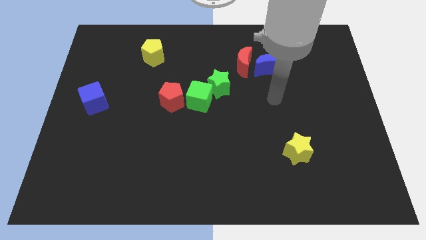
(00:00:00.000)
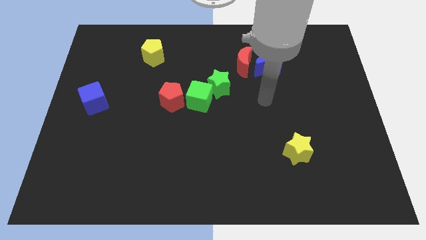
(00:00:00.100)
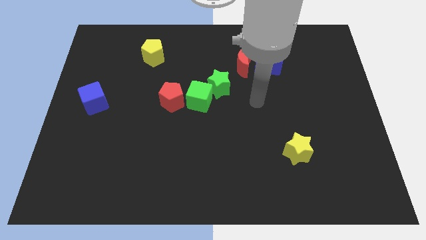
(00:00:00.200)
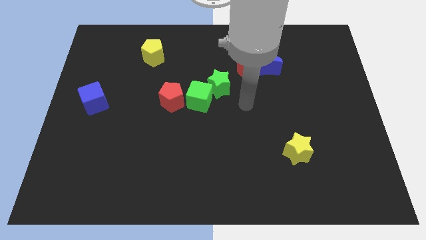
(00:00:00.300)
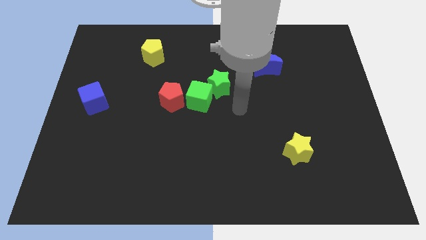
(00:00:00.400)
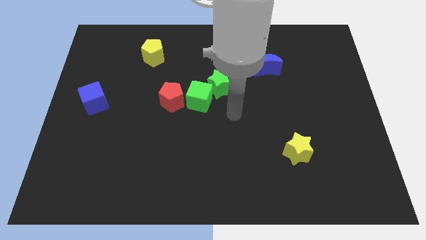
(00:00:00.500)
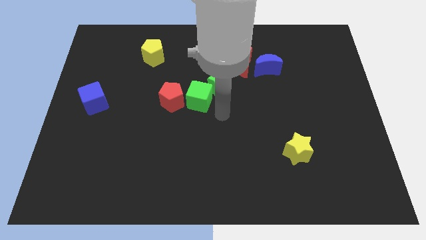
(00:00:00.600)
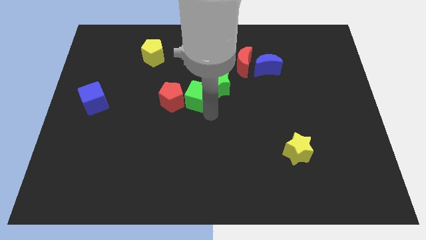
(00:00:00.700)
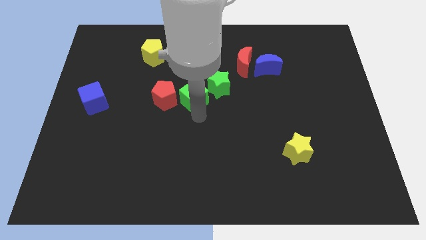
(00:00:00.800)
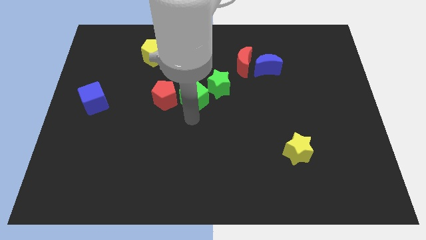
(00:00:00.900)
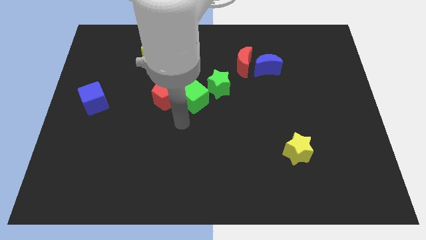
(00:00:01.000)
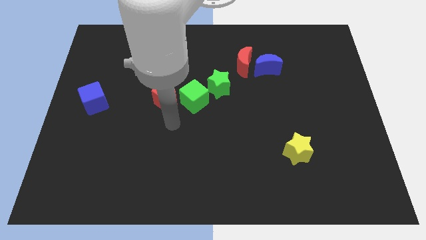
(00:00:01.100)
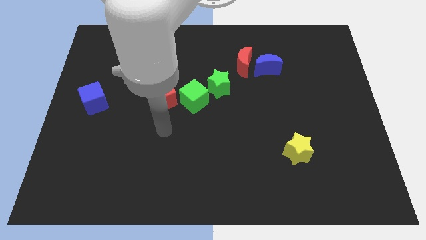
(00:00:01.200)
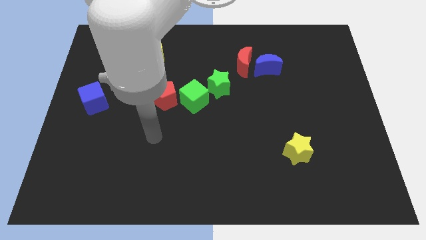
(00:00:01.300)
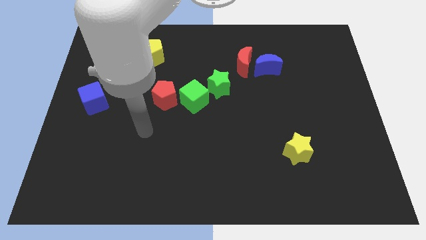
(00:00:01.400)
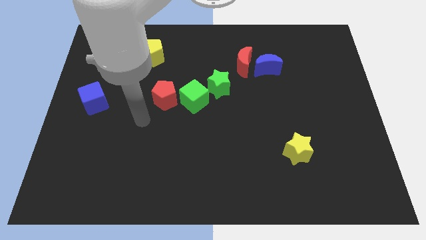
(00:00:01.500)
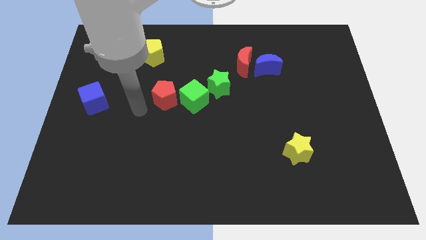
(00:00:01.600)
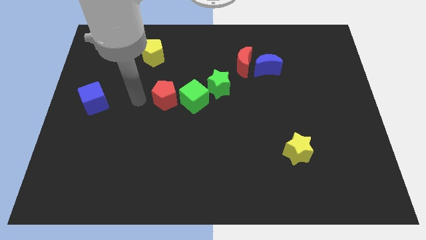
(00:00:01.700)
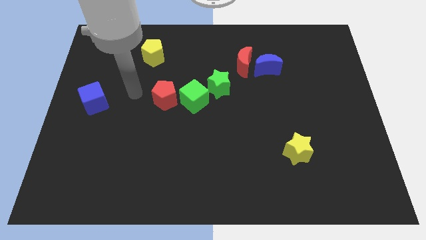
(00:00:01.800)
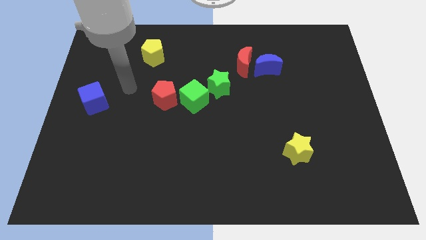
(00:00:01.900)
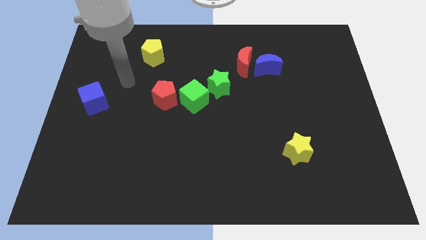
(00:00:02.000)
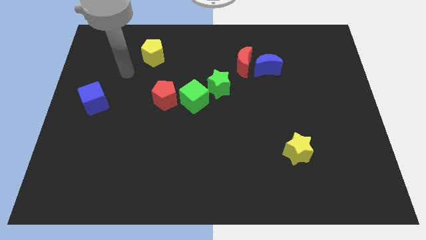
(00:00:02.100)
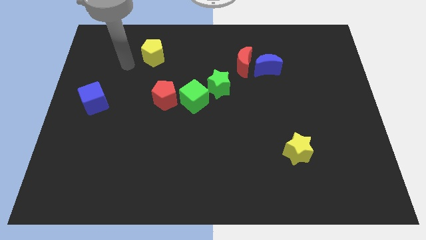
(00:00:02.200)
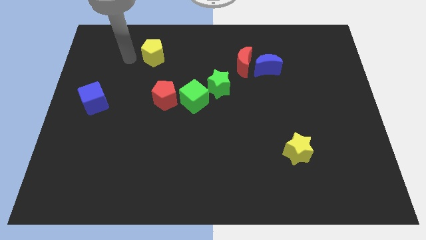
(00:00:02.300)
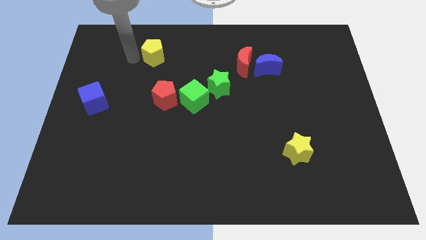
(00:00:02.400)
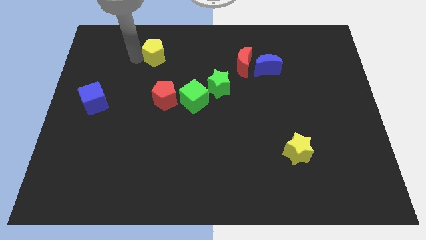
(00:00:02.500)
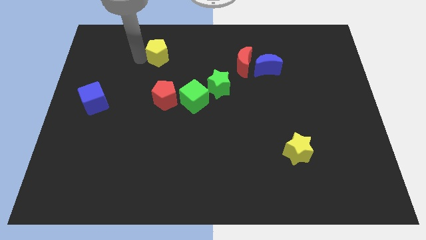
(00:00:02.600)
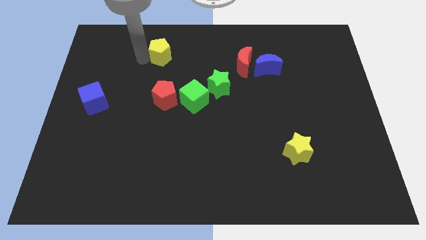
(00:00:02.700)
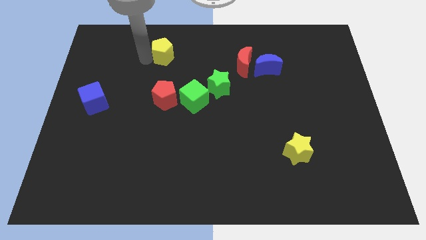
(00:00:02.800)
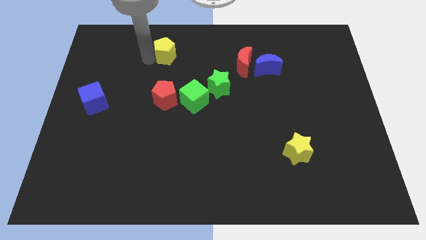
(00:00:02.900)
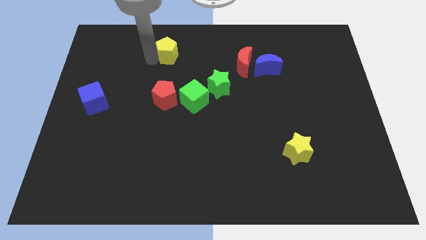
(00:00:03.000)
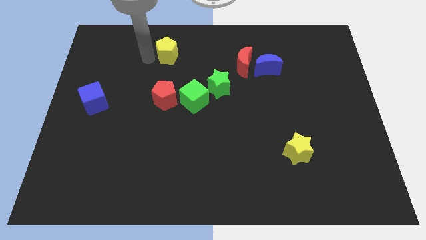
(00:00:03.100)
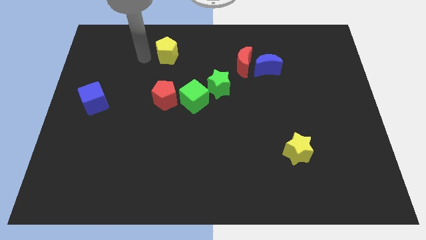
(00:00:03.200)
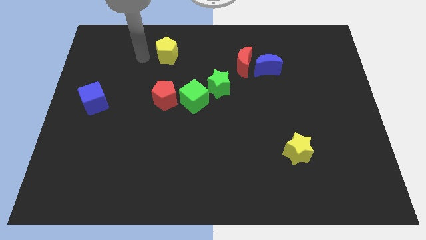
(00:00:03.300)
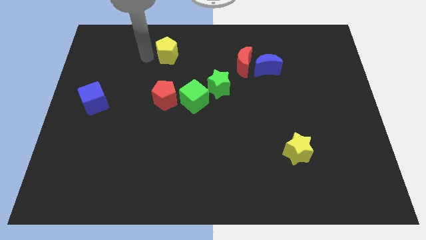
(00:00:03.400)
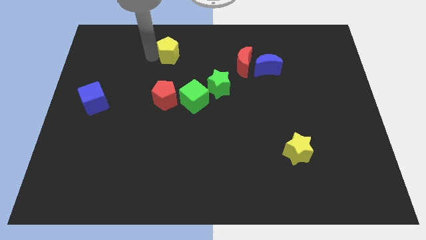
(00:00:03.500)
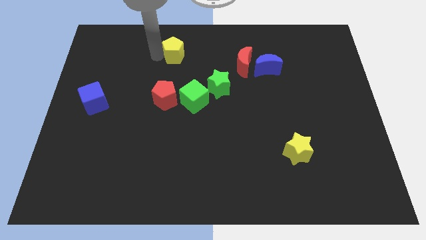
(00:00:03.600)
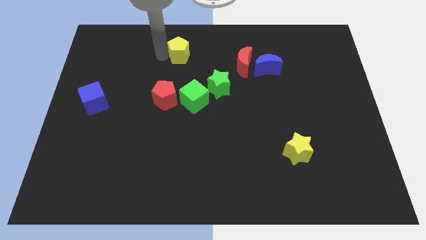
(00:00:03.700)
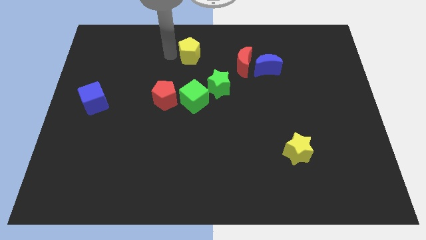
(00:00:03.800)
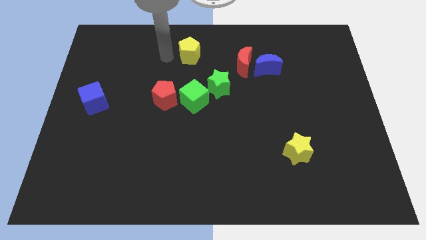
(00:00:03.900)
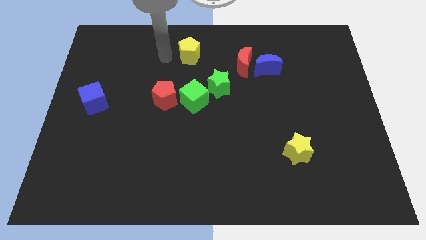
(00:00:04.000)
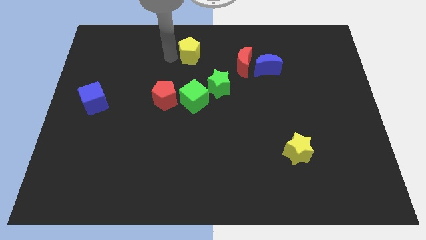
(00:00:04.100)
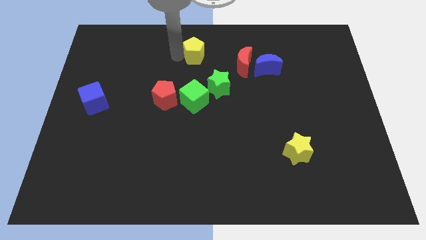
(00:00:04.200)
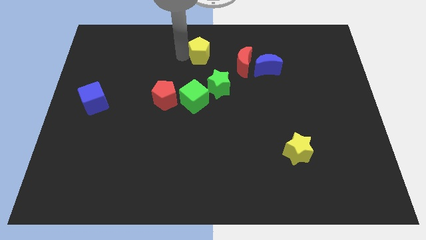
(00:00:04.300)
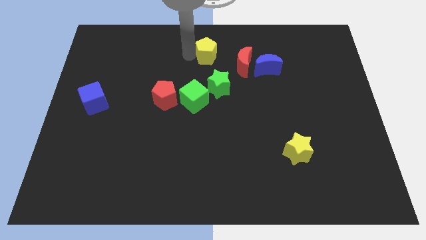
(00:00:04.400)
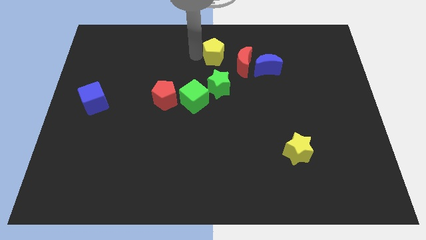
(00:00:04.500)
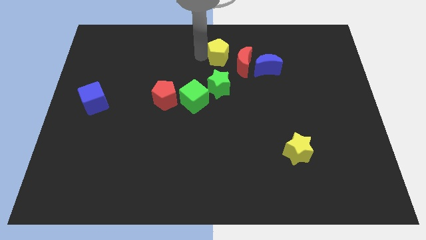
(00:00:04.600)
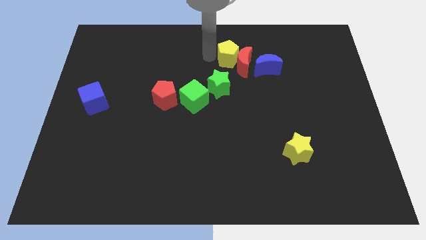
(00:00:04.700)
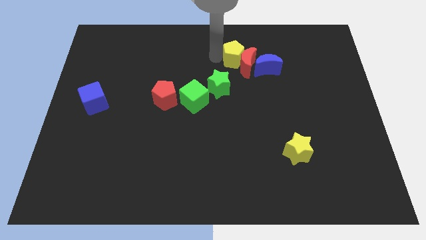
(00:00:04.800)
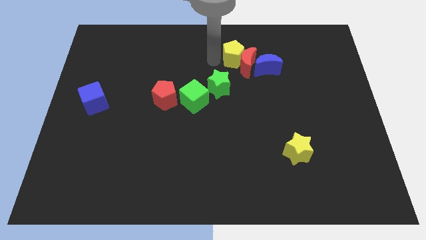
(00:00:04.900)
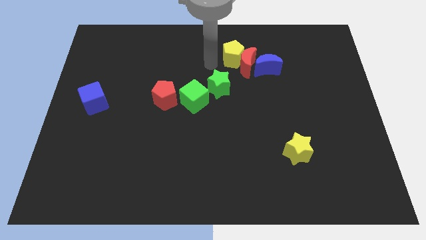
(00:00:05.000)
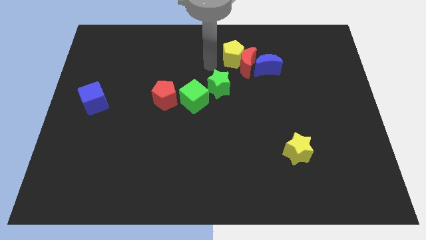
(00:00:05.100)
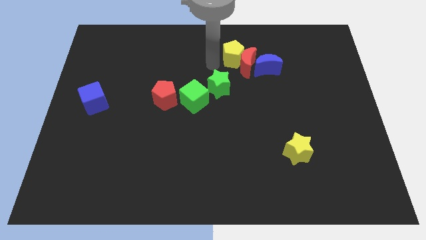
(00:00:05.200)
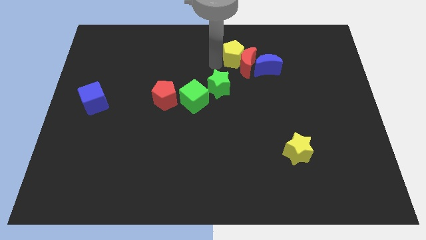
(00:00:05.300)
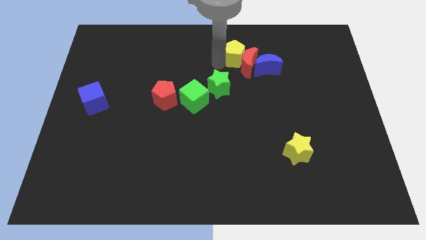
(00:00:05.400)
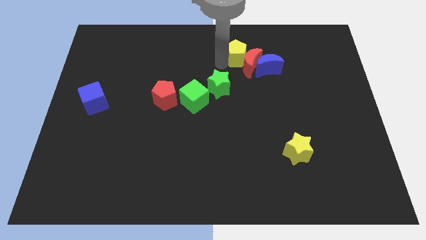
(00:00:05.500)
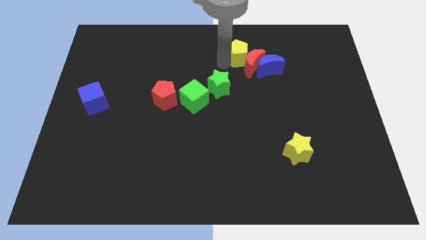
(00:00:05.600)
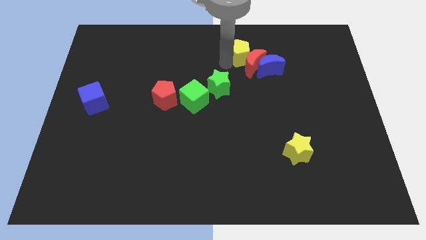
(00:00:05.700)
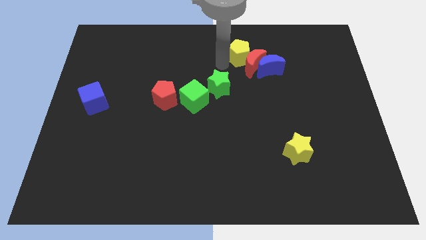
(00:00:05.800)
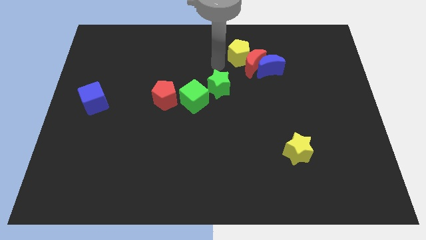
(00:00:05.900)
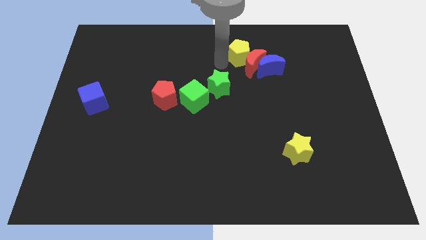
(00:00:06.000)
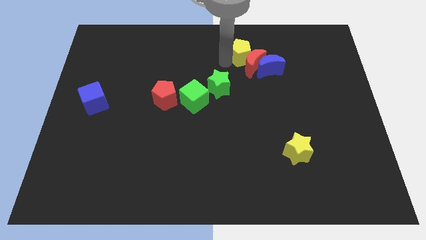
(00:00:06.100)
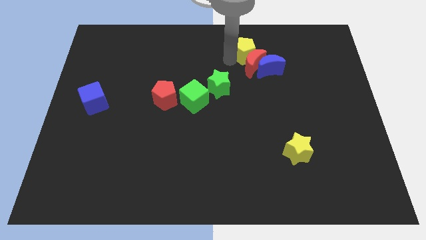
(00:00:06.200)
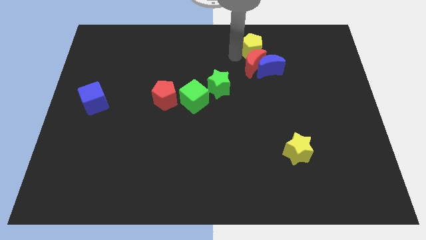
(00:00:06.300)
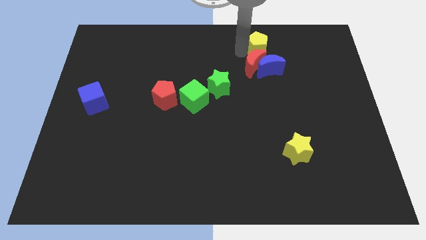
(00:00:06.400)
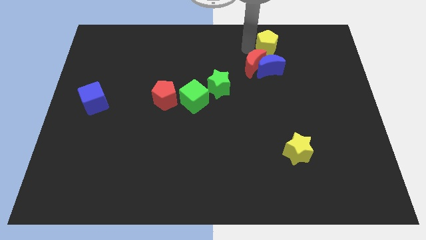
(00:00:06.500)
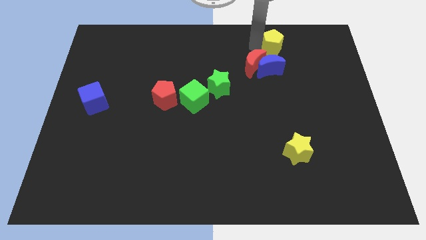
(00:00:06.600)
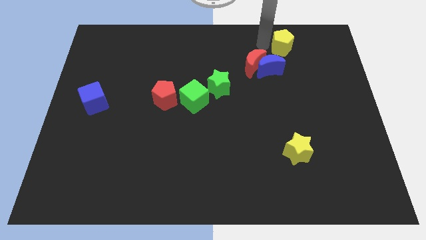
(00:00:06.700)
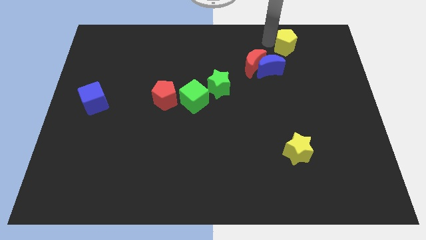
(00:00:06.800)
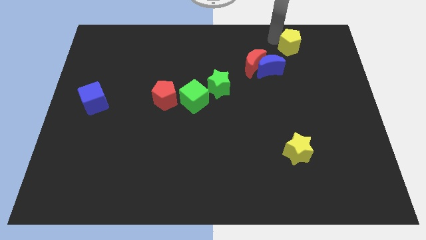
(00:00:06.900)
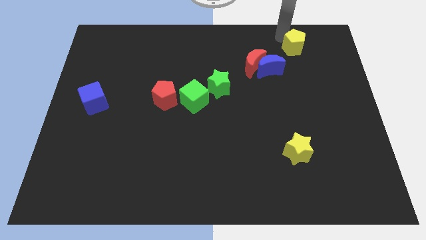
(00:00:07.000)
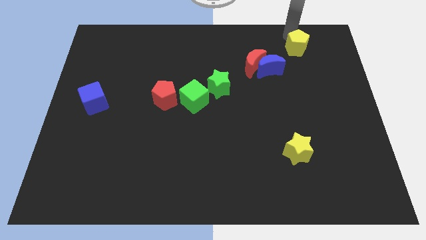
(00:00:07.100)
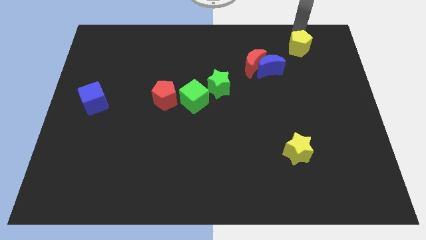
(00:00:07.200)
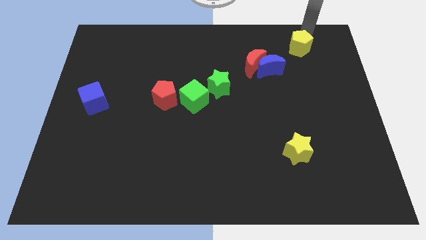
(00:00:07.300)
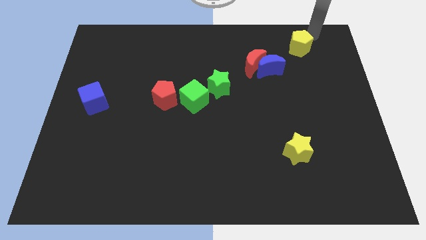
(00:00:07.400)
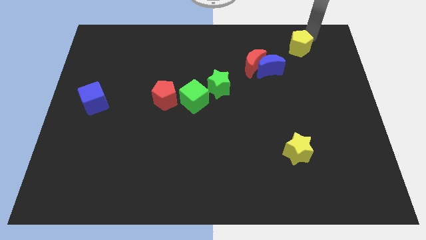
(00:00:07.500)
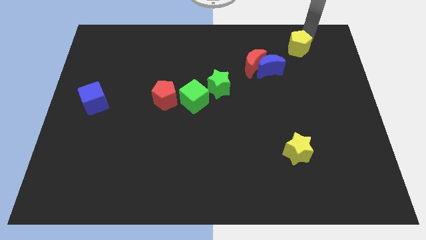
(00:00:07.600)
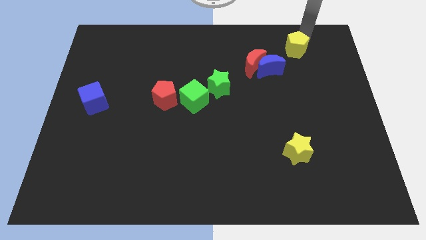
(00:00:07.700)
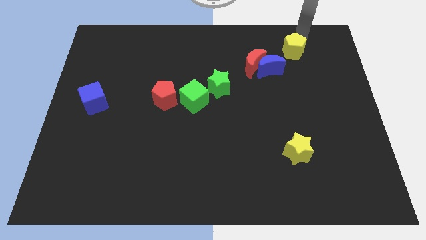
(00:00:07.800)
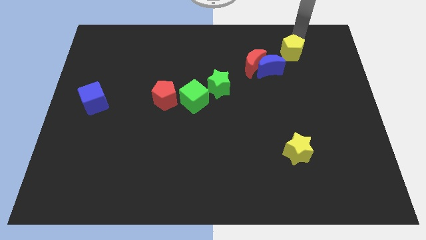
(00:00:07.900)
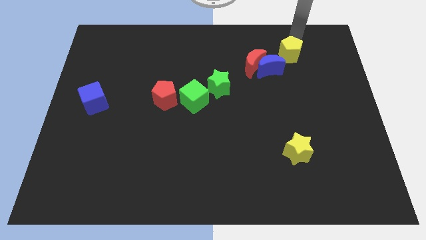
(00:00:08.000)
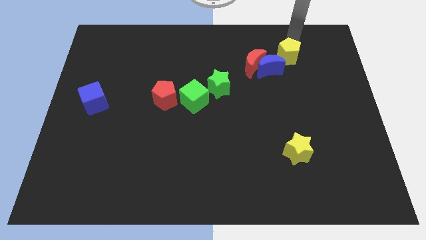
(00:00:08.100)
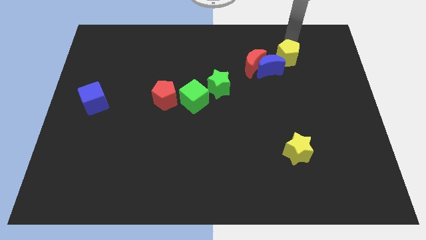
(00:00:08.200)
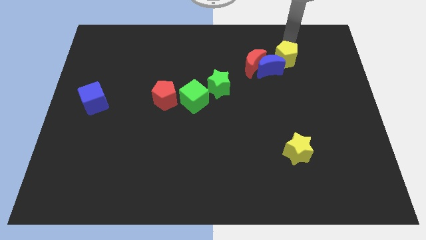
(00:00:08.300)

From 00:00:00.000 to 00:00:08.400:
move the yellow pentagon close to the blue moon
